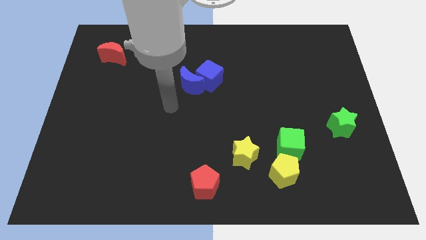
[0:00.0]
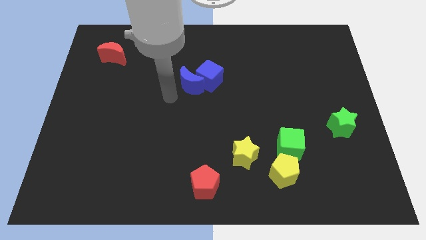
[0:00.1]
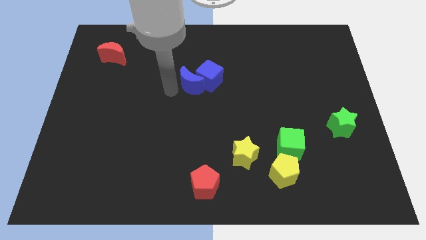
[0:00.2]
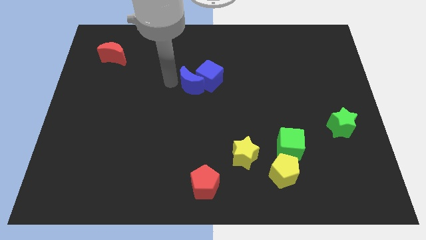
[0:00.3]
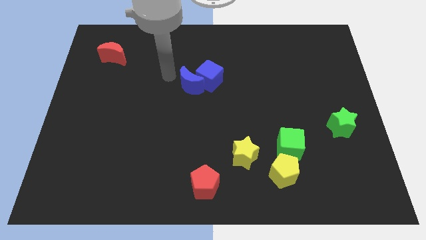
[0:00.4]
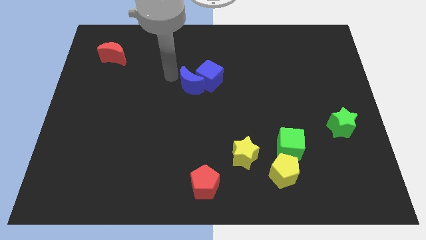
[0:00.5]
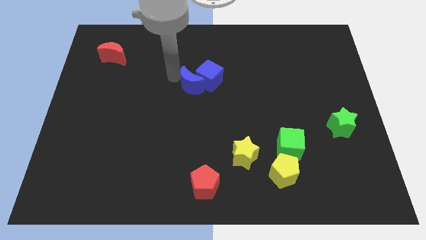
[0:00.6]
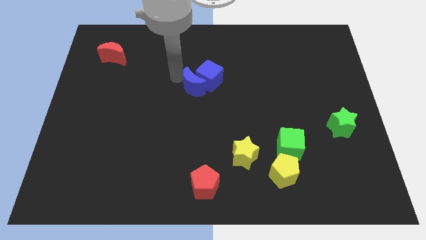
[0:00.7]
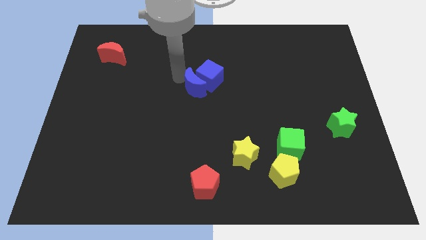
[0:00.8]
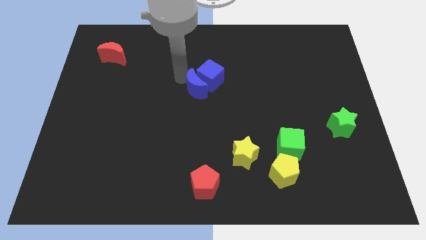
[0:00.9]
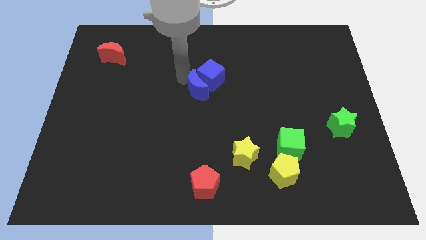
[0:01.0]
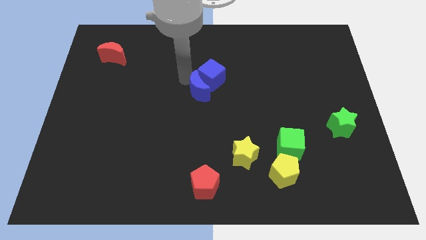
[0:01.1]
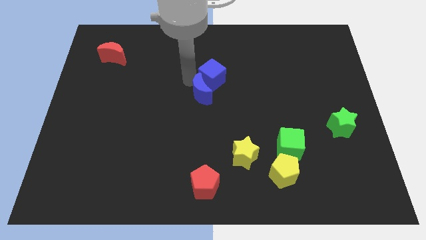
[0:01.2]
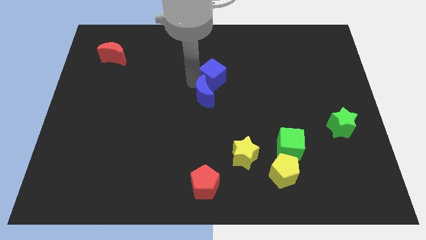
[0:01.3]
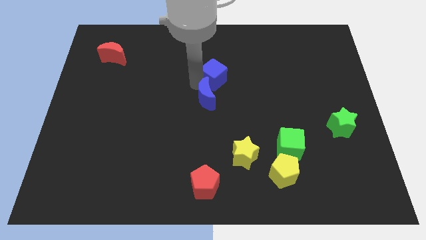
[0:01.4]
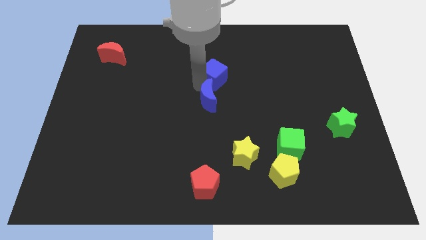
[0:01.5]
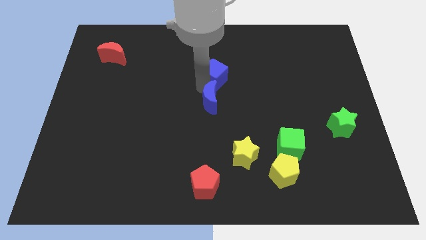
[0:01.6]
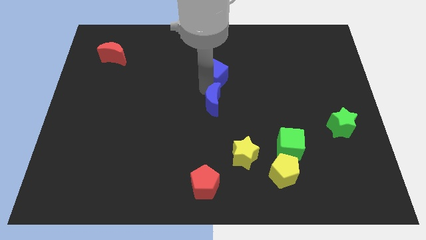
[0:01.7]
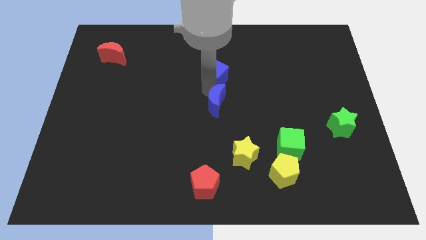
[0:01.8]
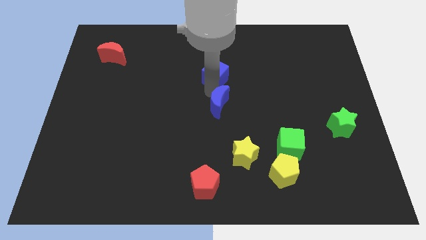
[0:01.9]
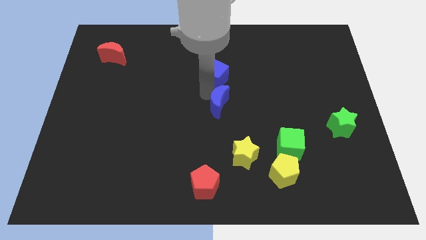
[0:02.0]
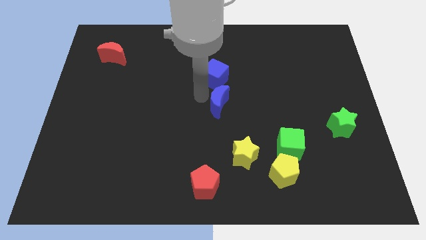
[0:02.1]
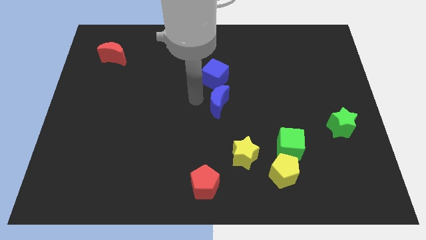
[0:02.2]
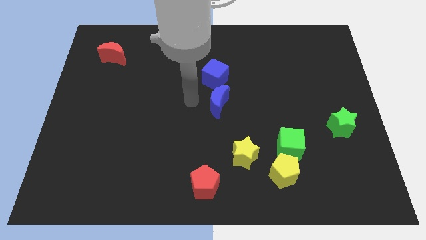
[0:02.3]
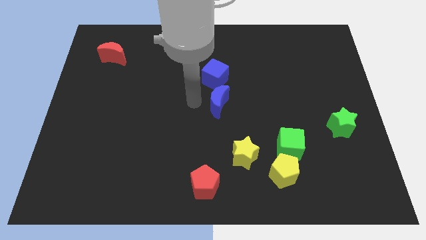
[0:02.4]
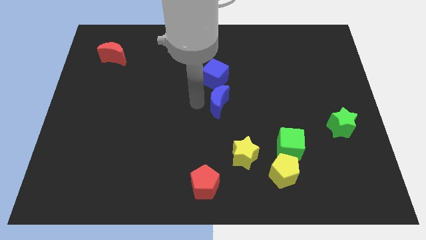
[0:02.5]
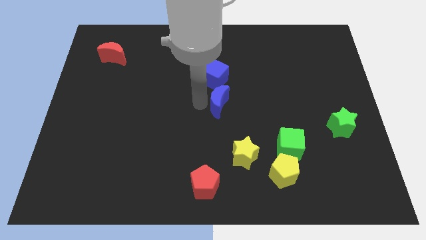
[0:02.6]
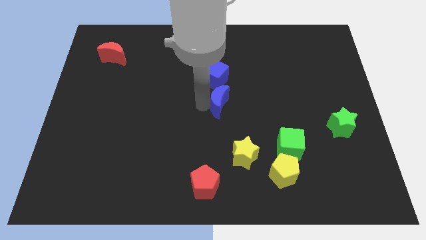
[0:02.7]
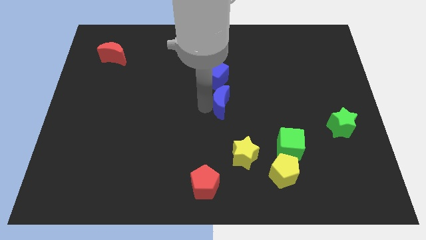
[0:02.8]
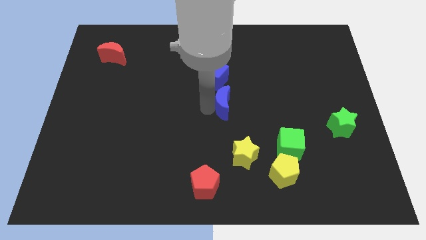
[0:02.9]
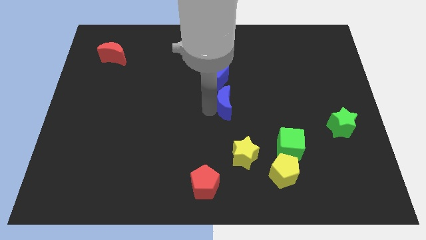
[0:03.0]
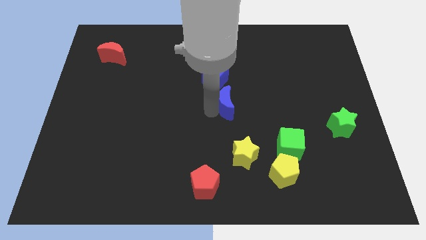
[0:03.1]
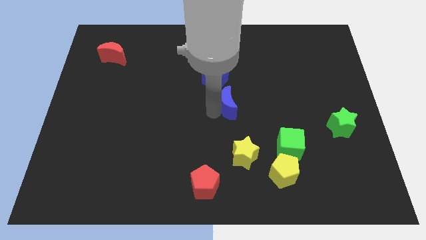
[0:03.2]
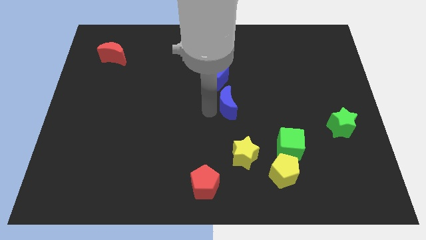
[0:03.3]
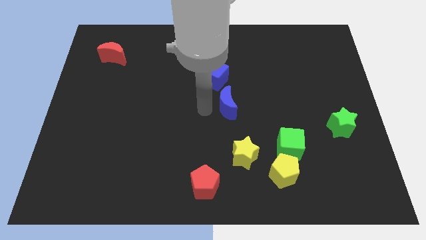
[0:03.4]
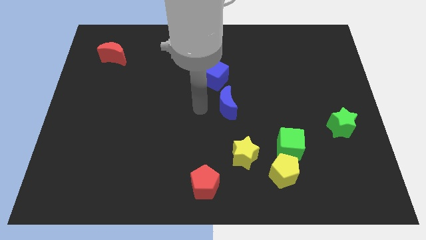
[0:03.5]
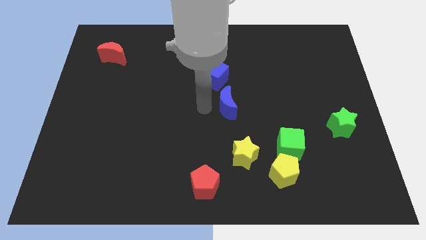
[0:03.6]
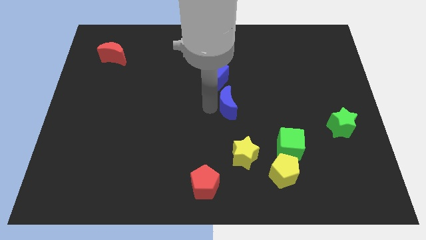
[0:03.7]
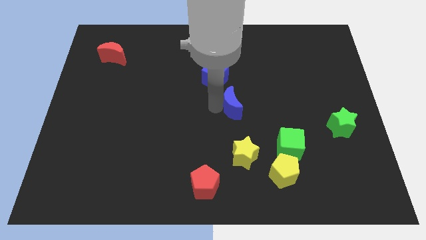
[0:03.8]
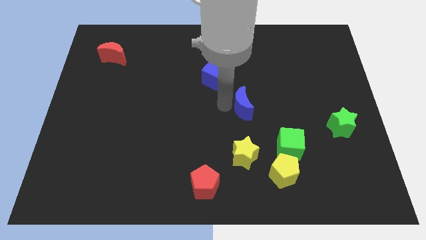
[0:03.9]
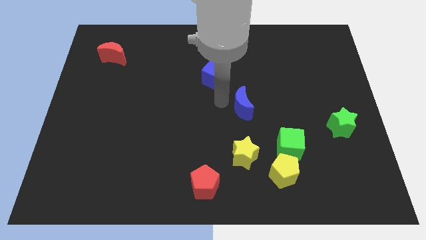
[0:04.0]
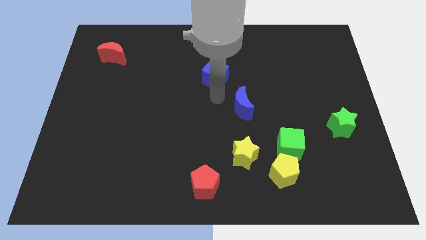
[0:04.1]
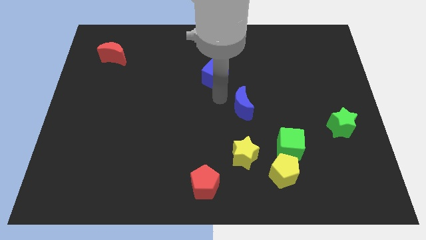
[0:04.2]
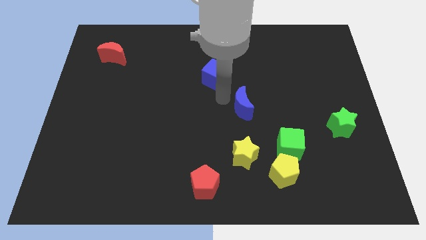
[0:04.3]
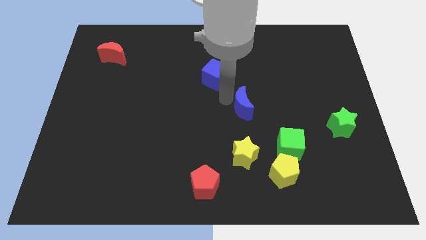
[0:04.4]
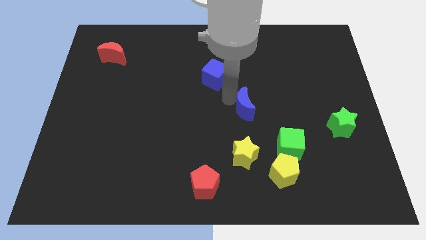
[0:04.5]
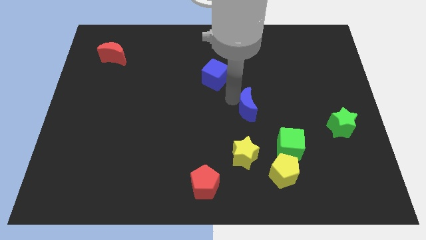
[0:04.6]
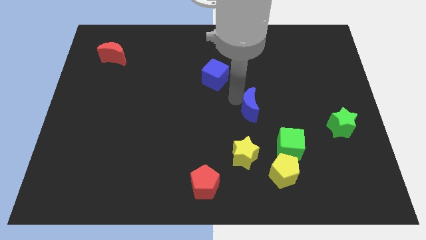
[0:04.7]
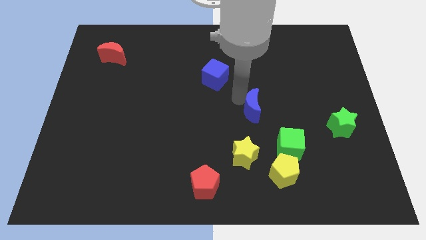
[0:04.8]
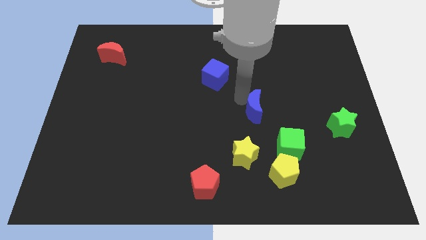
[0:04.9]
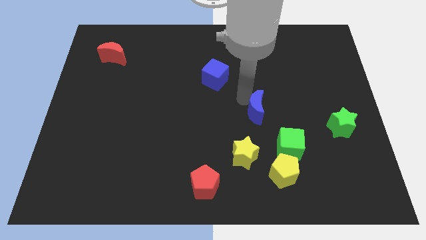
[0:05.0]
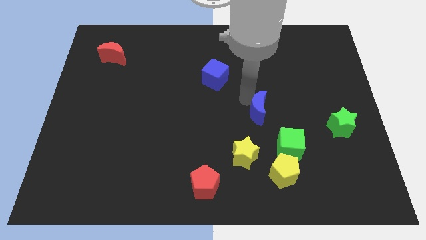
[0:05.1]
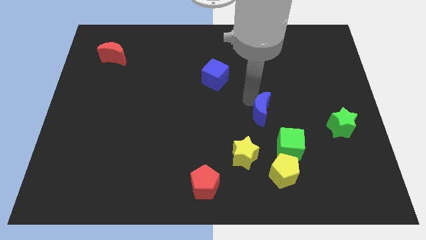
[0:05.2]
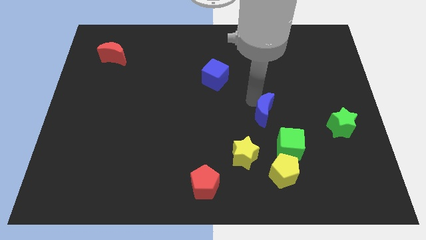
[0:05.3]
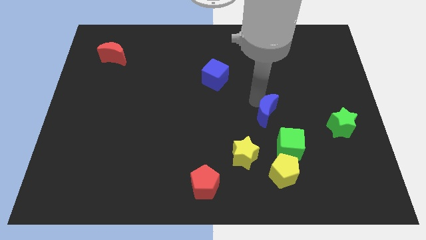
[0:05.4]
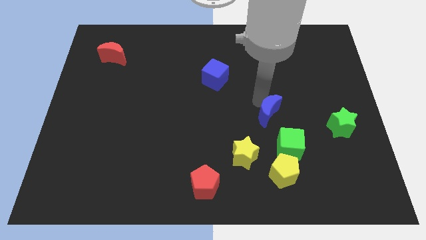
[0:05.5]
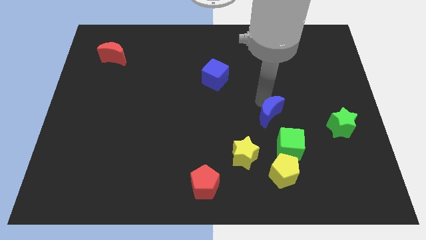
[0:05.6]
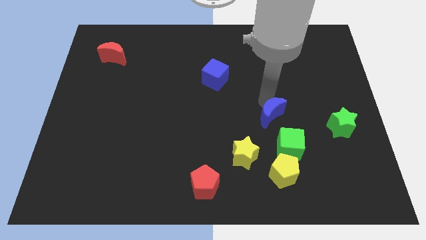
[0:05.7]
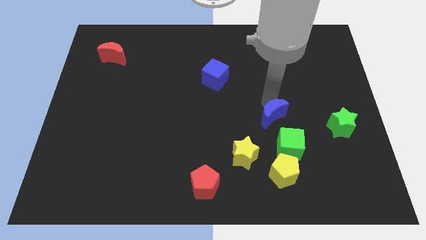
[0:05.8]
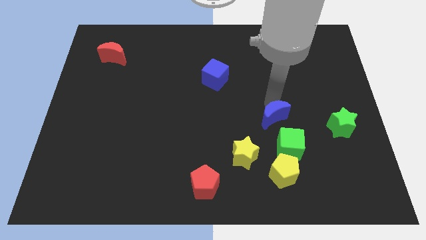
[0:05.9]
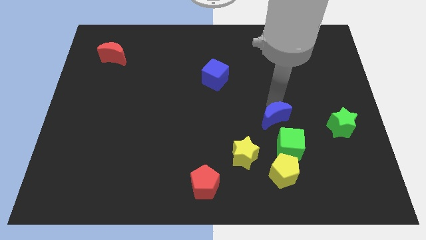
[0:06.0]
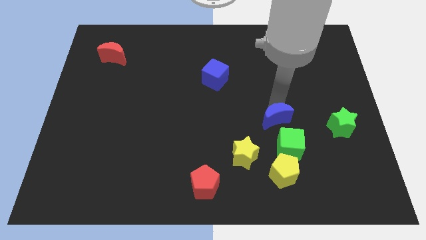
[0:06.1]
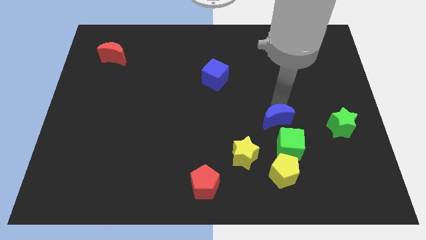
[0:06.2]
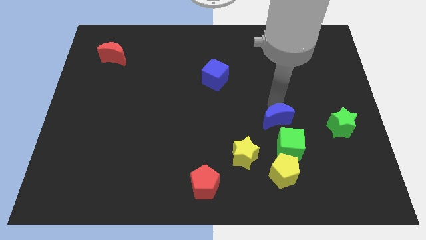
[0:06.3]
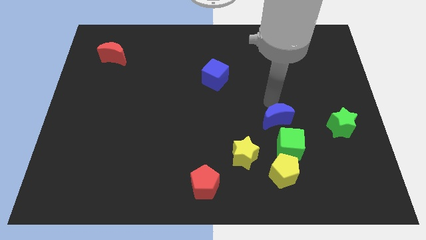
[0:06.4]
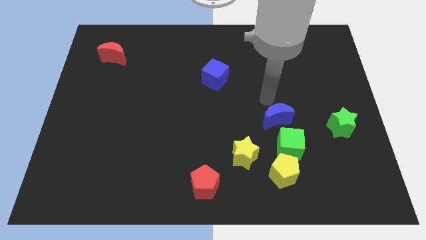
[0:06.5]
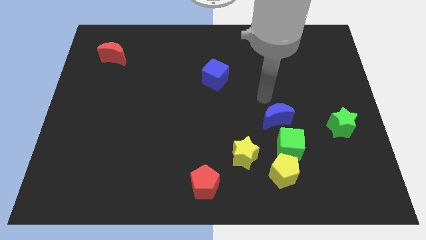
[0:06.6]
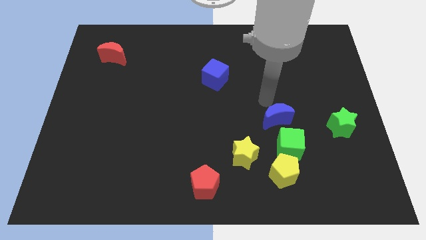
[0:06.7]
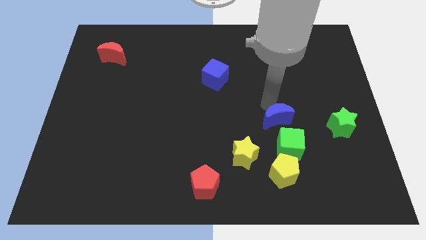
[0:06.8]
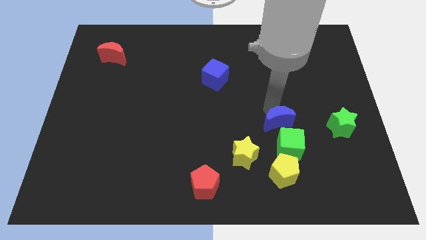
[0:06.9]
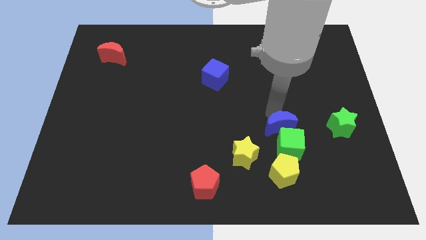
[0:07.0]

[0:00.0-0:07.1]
push the blue moon towards the green cube
